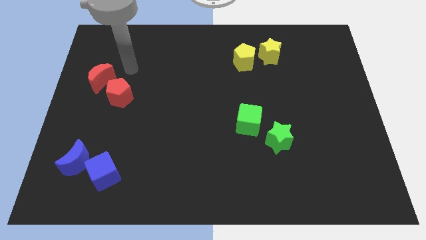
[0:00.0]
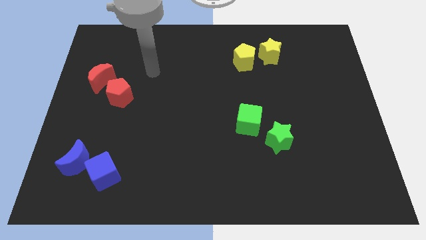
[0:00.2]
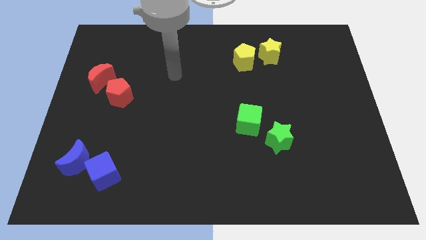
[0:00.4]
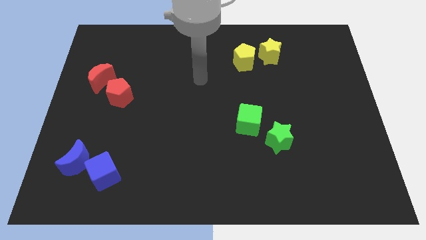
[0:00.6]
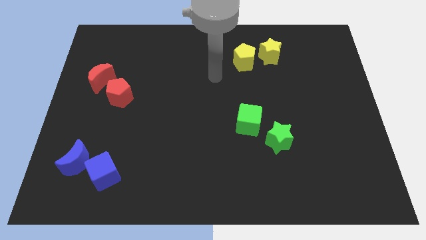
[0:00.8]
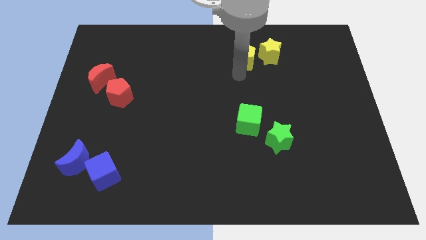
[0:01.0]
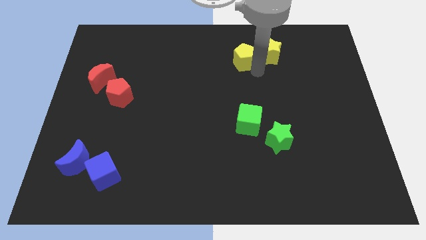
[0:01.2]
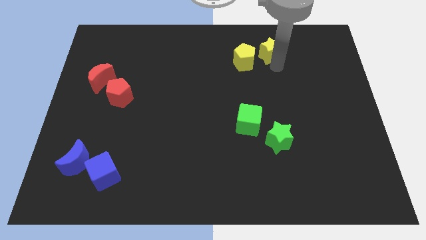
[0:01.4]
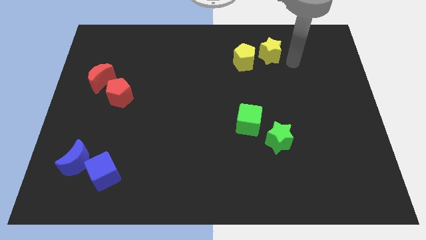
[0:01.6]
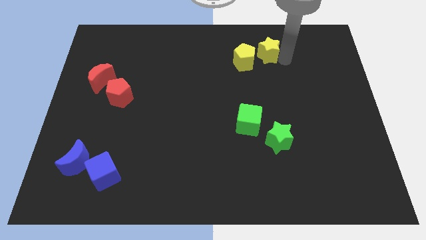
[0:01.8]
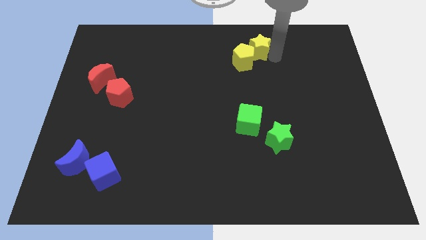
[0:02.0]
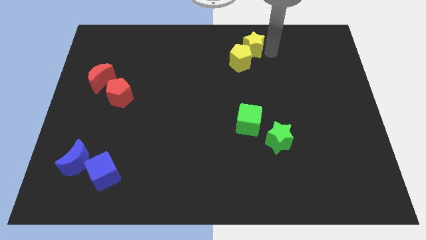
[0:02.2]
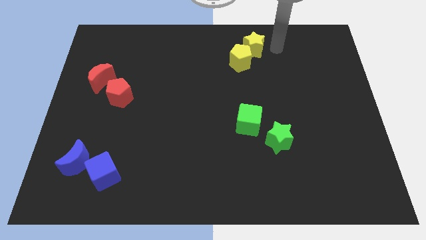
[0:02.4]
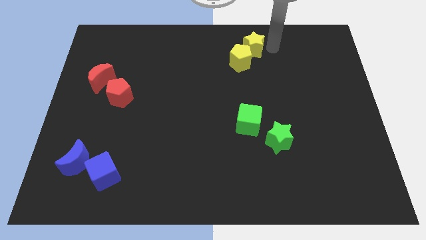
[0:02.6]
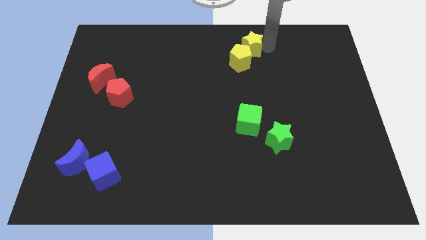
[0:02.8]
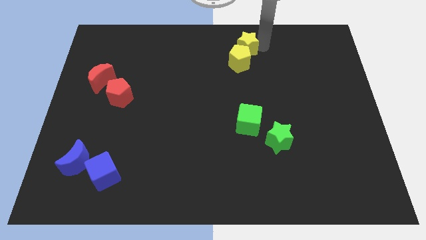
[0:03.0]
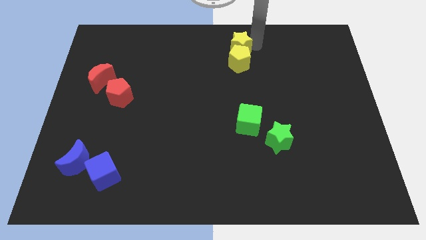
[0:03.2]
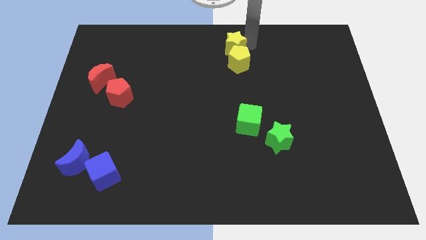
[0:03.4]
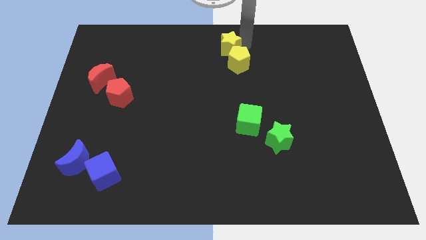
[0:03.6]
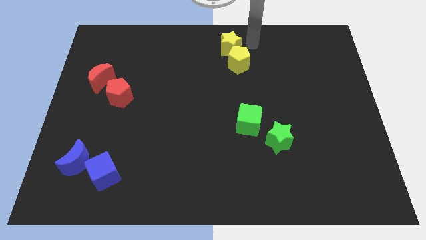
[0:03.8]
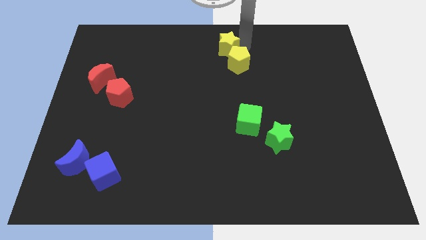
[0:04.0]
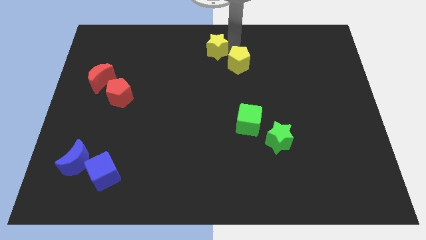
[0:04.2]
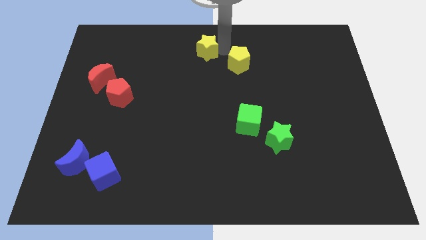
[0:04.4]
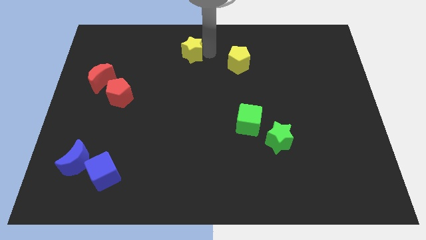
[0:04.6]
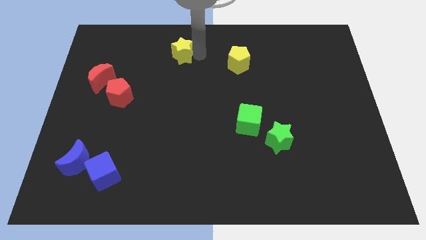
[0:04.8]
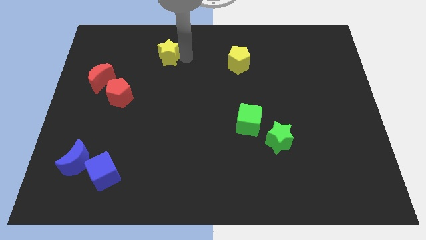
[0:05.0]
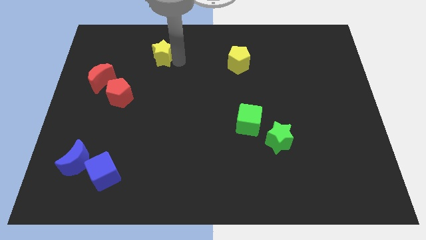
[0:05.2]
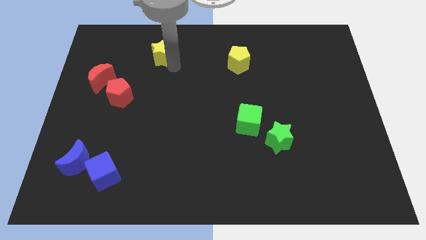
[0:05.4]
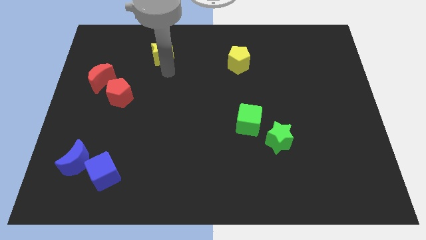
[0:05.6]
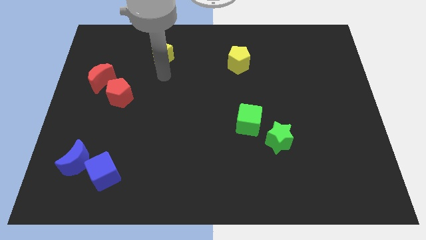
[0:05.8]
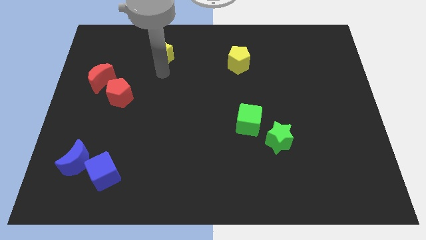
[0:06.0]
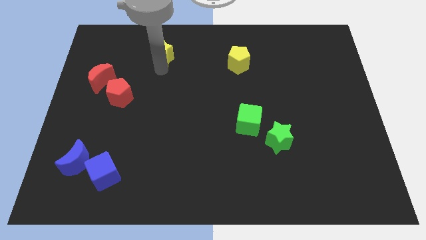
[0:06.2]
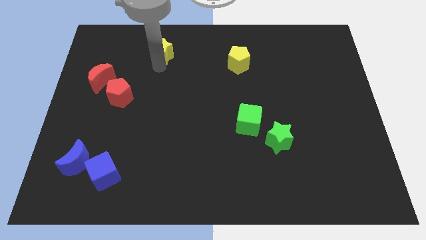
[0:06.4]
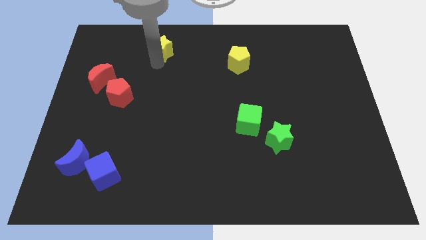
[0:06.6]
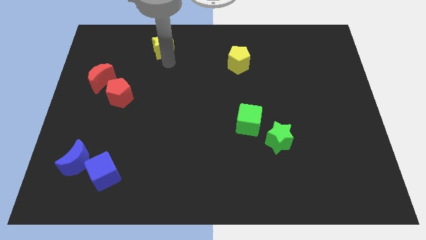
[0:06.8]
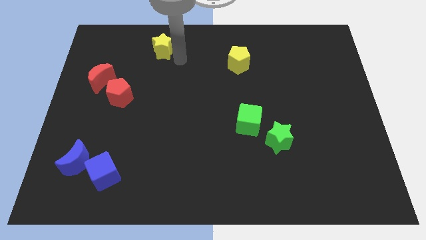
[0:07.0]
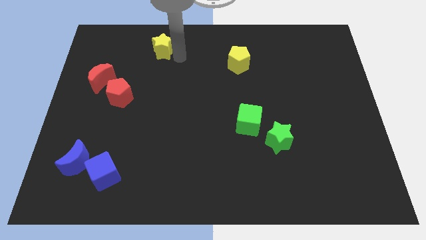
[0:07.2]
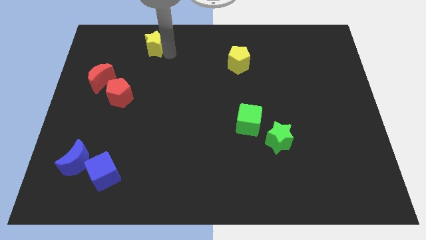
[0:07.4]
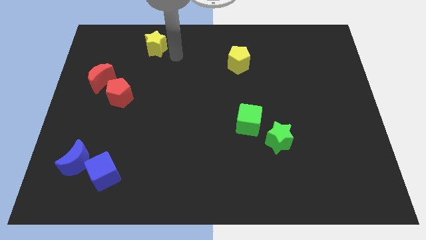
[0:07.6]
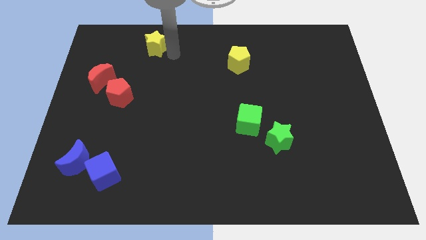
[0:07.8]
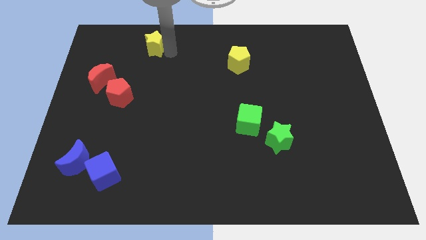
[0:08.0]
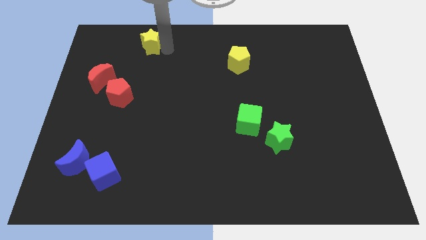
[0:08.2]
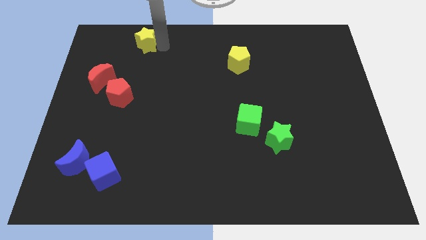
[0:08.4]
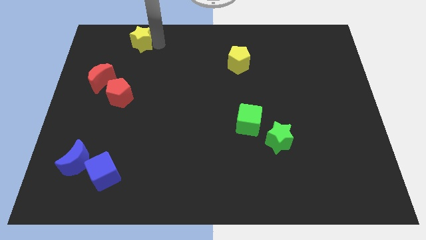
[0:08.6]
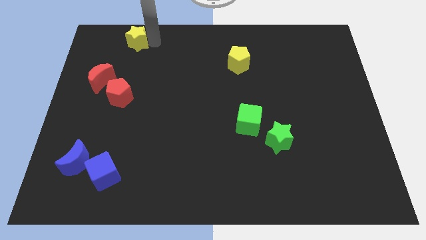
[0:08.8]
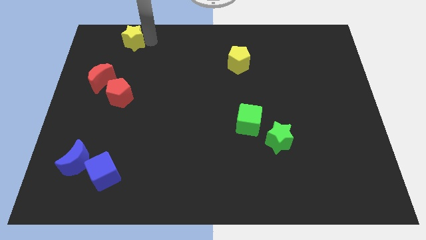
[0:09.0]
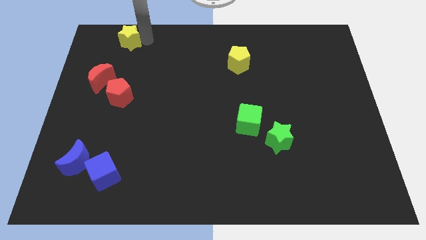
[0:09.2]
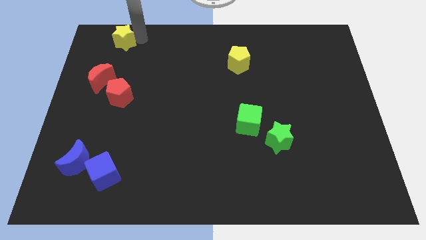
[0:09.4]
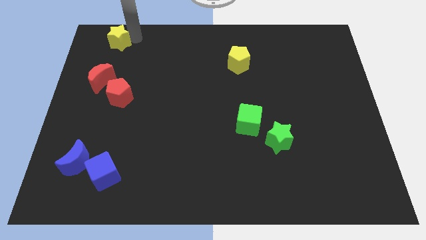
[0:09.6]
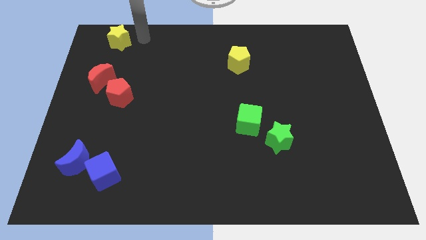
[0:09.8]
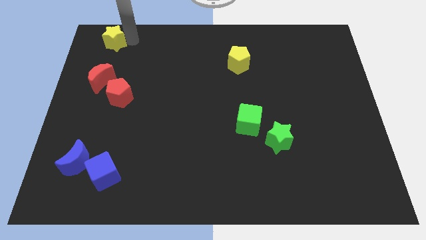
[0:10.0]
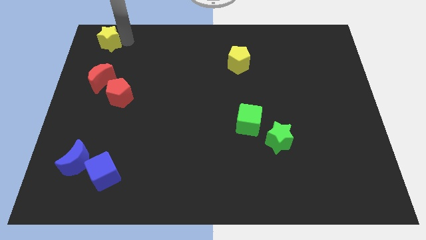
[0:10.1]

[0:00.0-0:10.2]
slide the yellow star to the top left

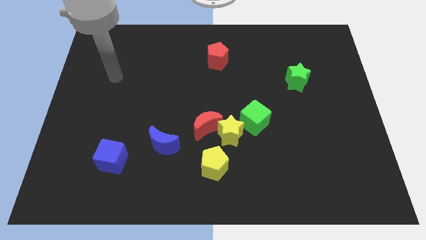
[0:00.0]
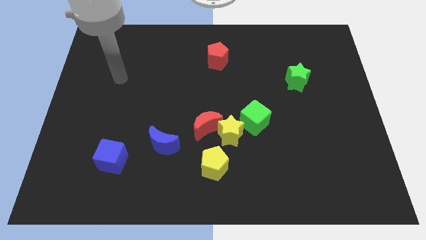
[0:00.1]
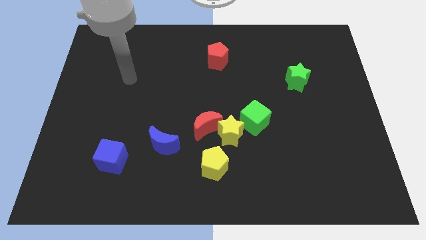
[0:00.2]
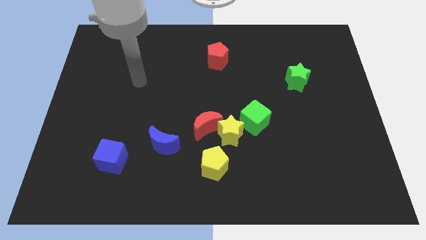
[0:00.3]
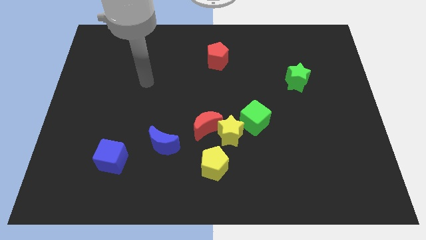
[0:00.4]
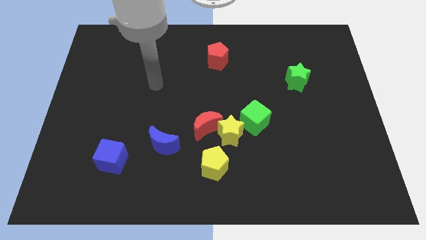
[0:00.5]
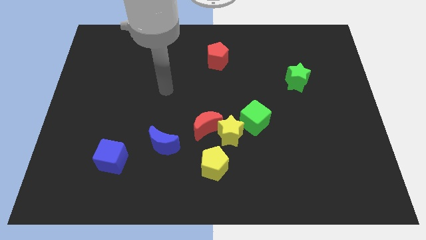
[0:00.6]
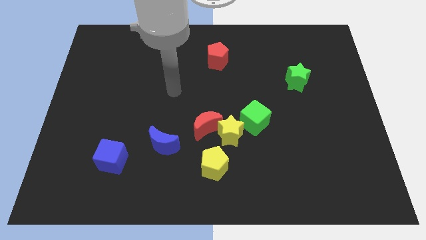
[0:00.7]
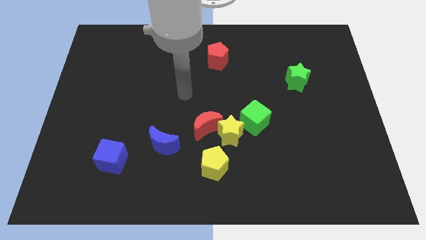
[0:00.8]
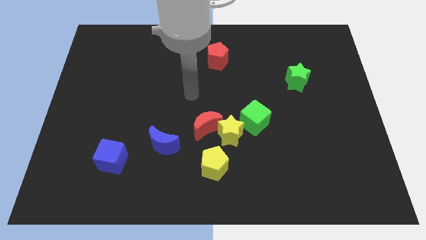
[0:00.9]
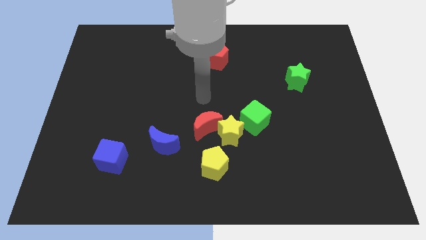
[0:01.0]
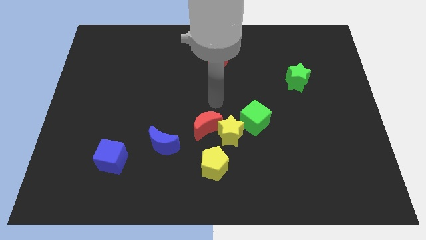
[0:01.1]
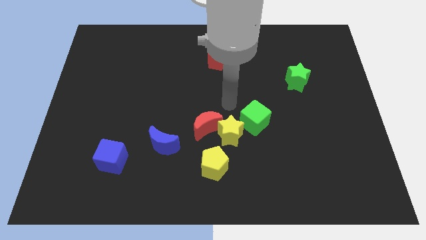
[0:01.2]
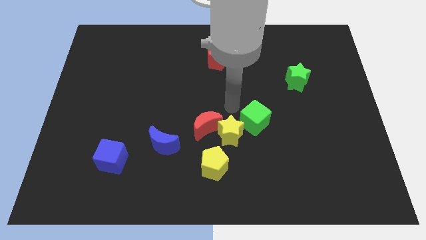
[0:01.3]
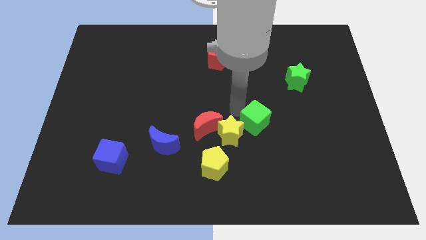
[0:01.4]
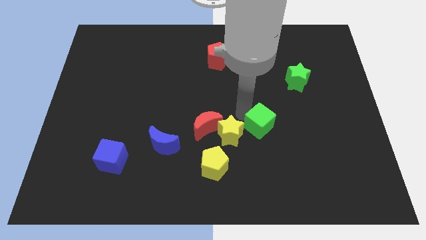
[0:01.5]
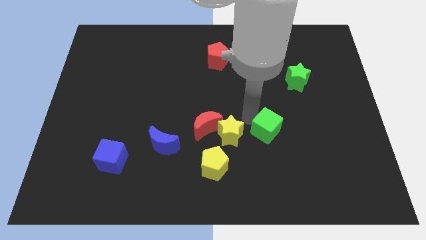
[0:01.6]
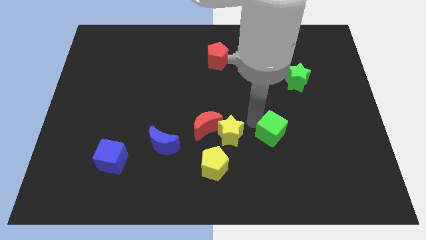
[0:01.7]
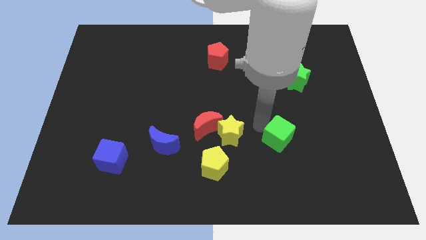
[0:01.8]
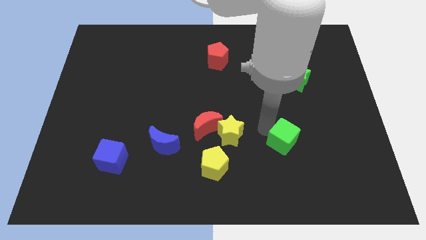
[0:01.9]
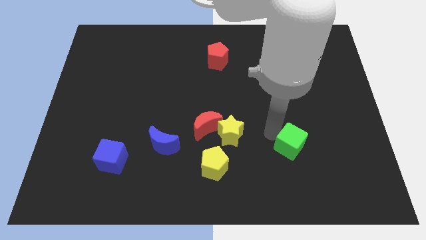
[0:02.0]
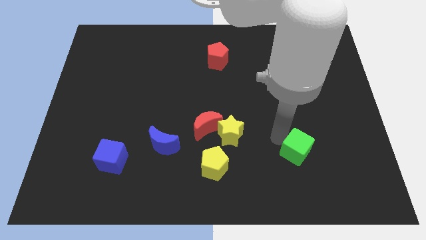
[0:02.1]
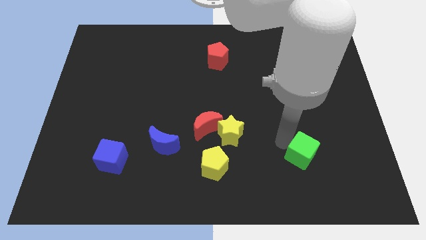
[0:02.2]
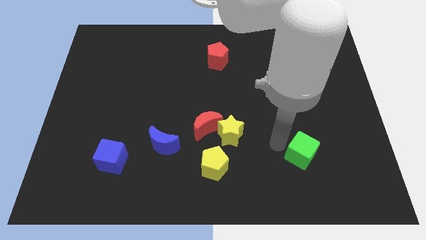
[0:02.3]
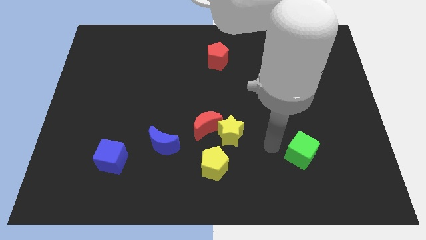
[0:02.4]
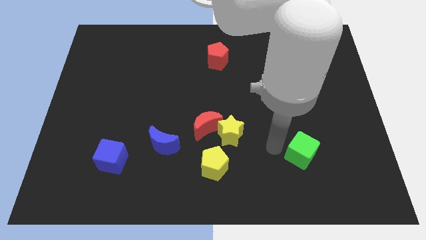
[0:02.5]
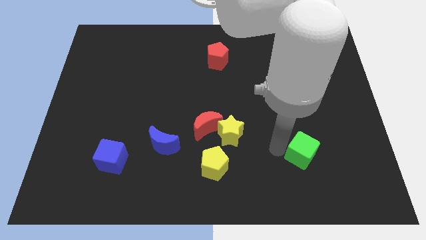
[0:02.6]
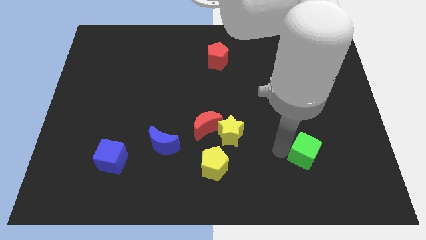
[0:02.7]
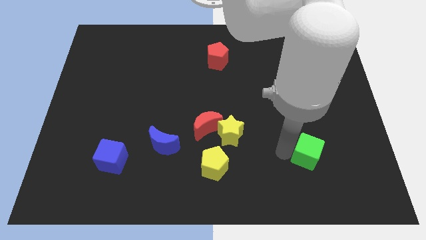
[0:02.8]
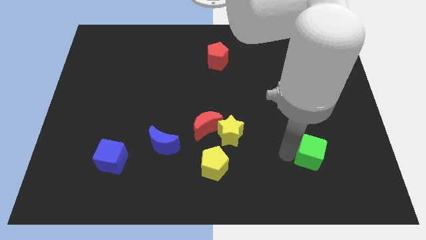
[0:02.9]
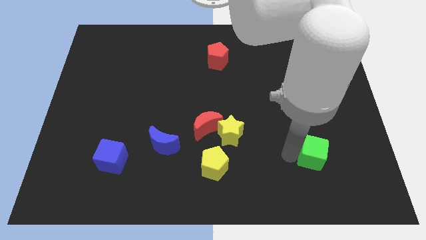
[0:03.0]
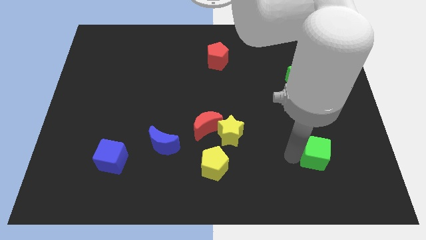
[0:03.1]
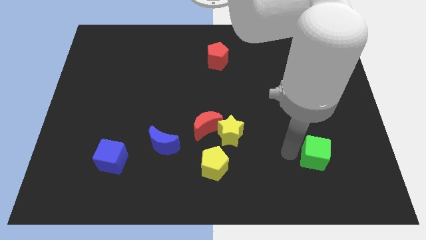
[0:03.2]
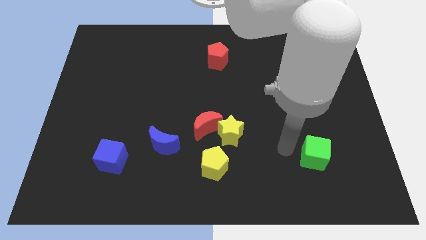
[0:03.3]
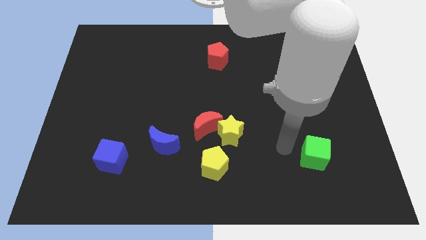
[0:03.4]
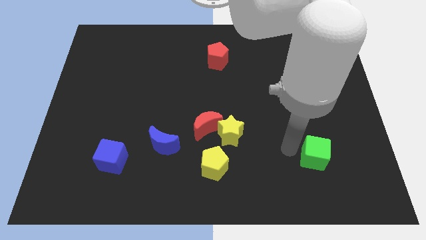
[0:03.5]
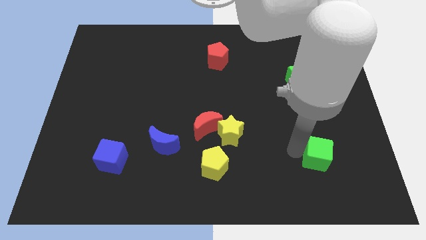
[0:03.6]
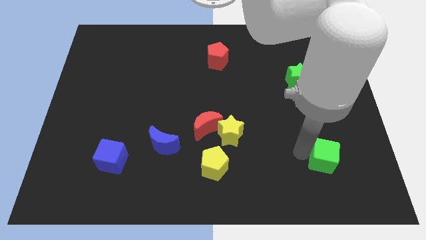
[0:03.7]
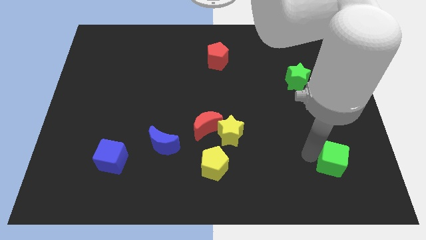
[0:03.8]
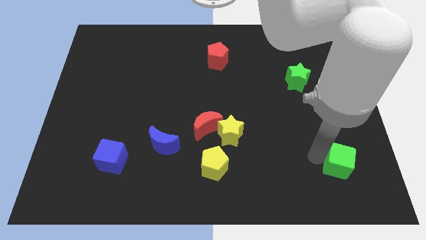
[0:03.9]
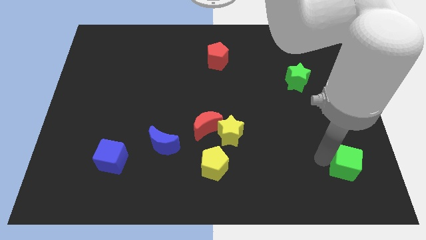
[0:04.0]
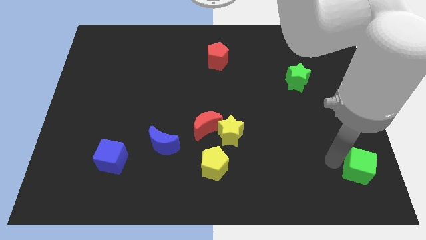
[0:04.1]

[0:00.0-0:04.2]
slide the green cube to the bottom right of the board
